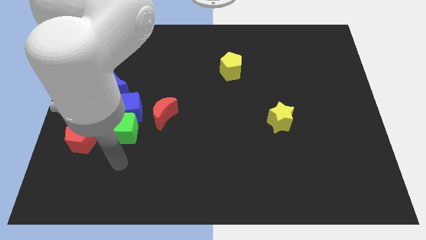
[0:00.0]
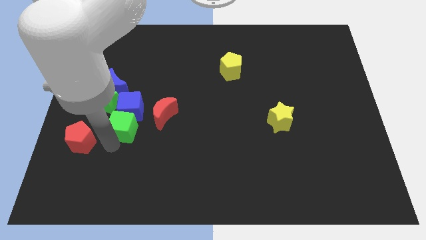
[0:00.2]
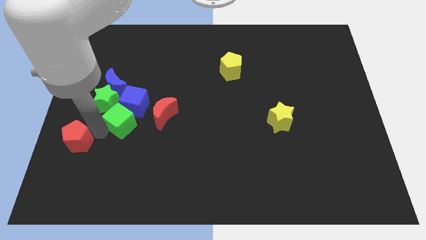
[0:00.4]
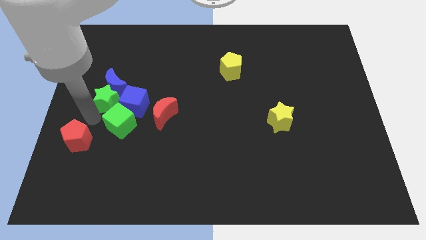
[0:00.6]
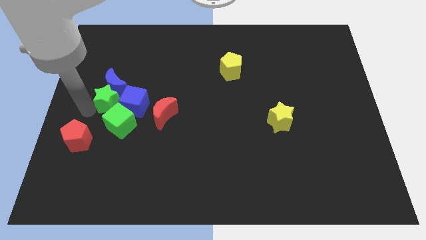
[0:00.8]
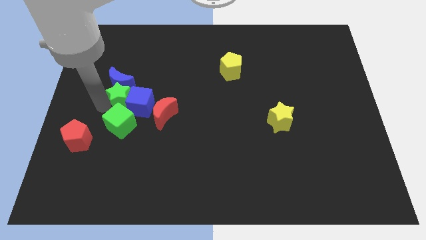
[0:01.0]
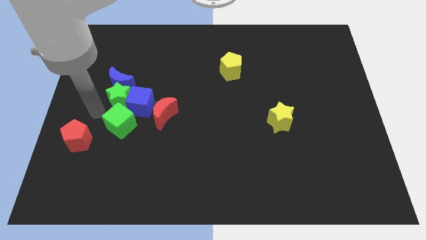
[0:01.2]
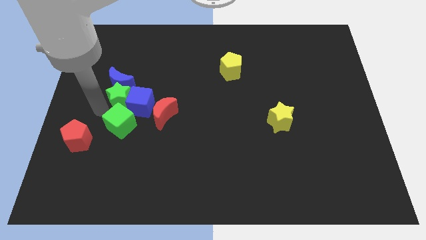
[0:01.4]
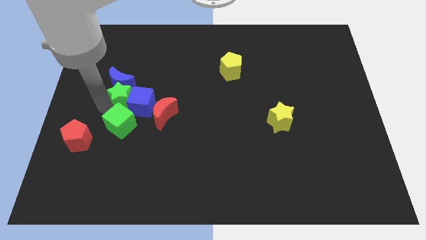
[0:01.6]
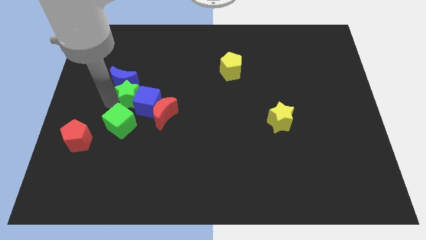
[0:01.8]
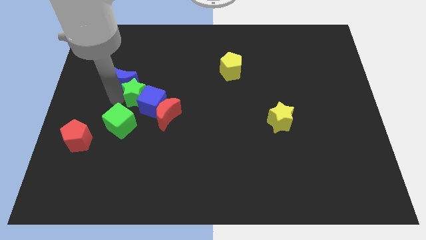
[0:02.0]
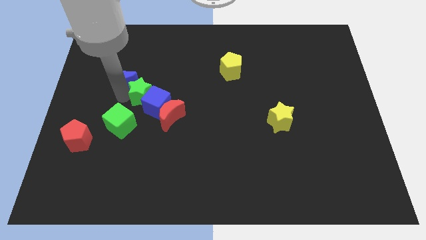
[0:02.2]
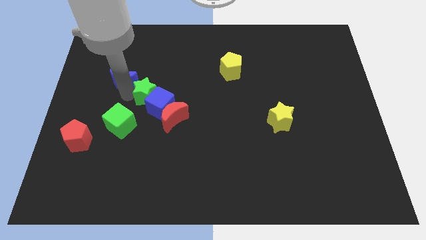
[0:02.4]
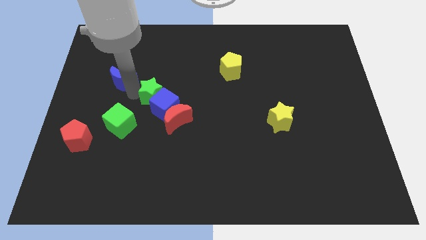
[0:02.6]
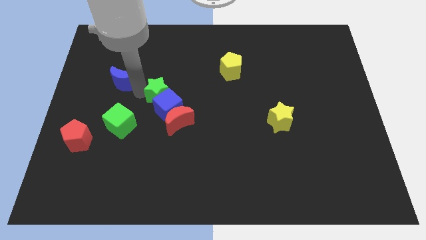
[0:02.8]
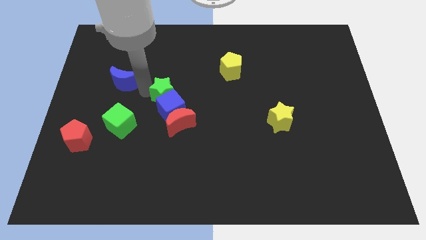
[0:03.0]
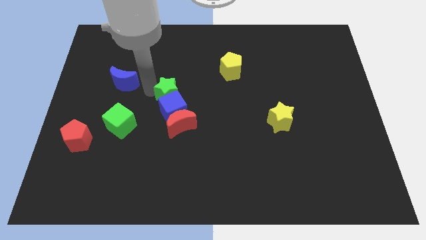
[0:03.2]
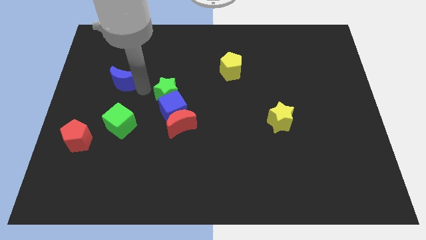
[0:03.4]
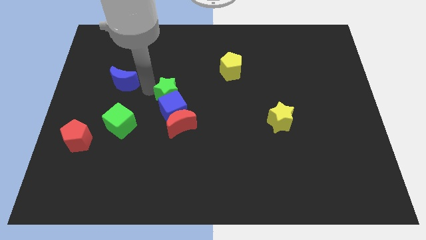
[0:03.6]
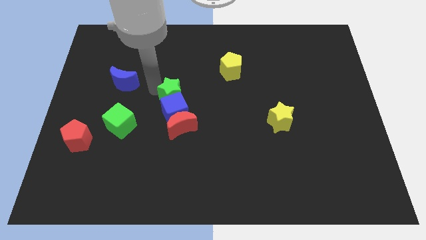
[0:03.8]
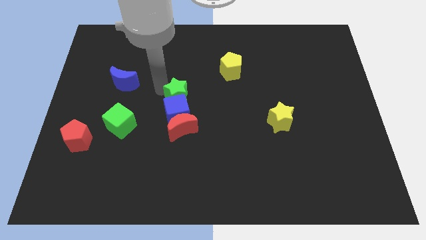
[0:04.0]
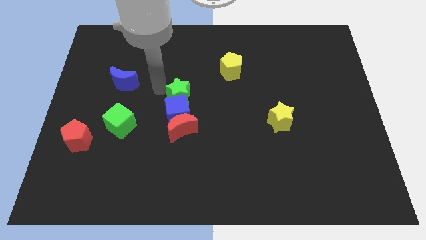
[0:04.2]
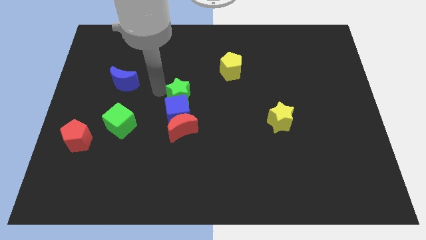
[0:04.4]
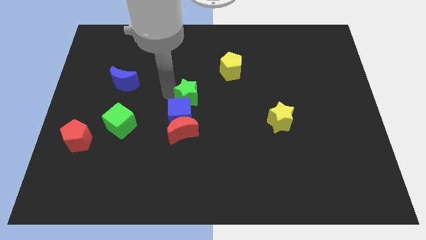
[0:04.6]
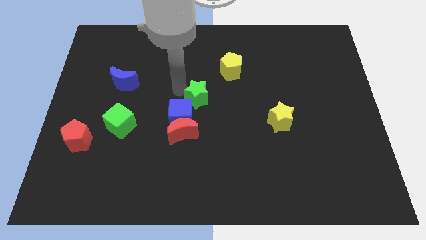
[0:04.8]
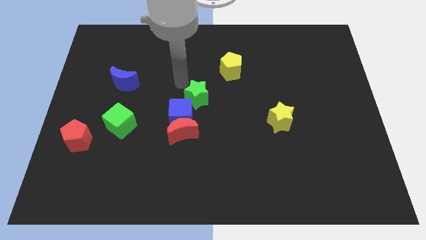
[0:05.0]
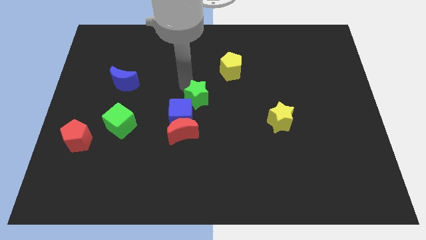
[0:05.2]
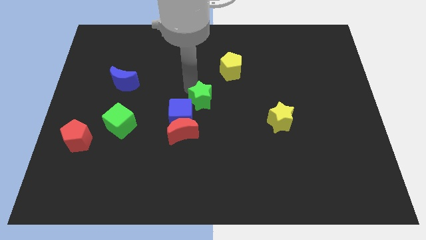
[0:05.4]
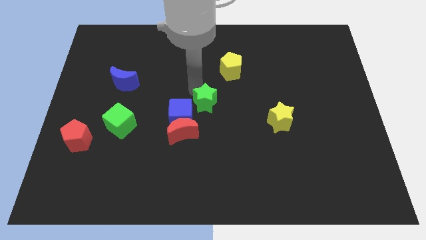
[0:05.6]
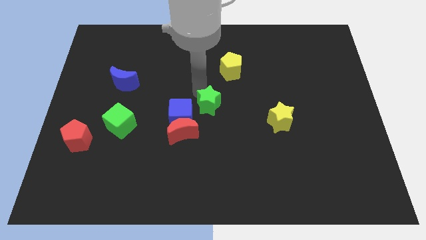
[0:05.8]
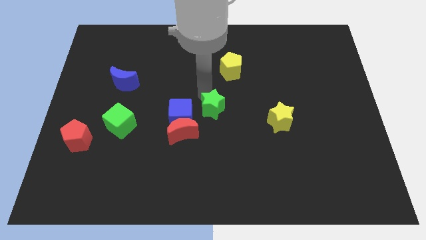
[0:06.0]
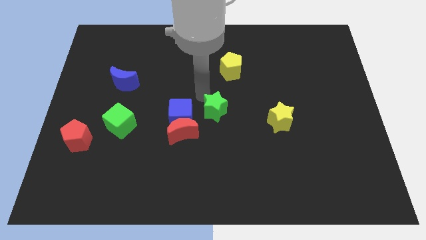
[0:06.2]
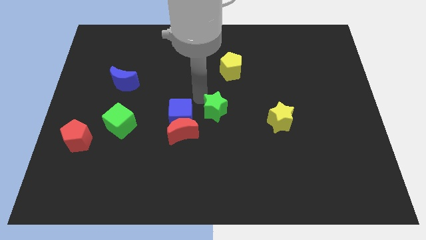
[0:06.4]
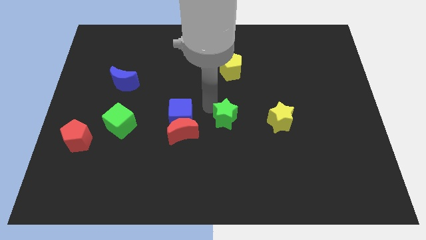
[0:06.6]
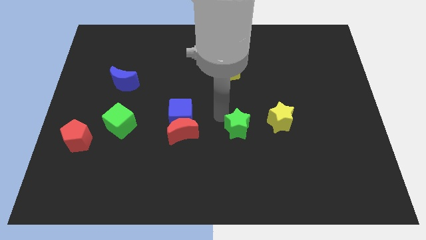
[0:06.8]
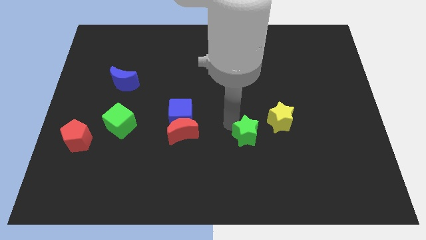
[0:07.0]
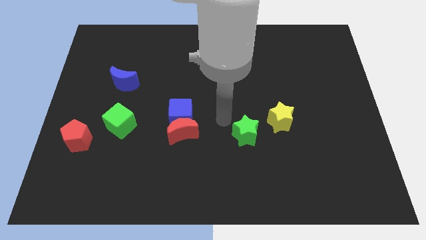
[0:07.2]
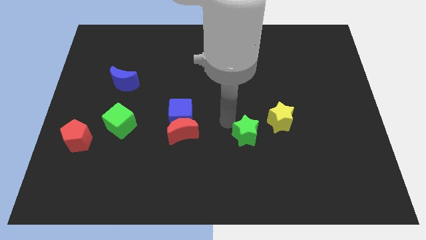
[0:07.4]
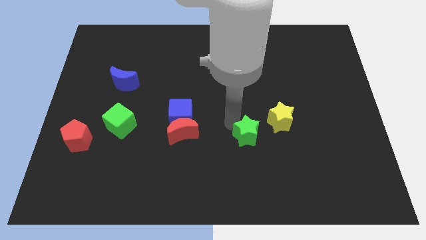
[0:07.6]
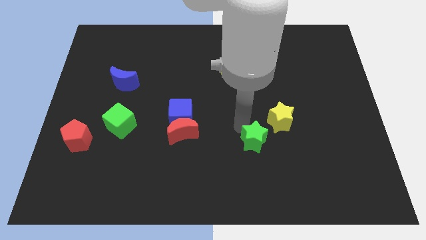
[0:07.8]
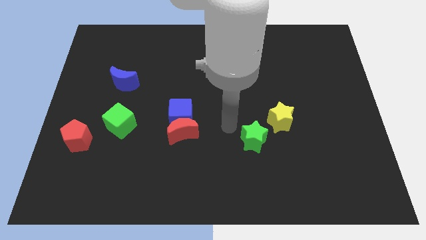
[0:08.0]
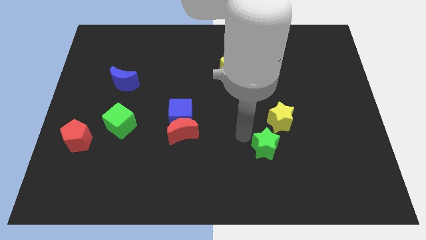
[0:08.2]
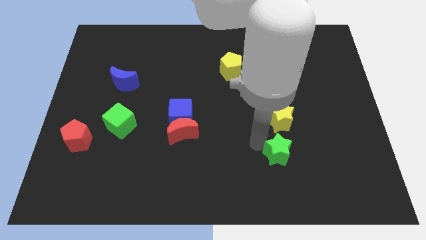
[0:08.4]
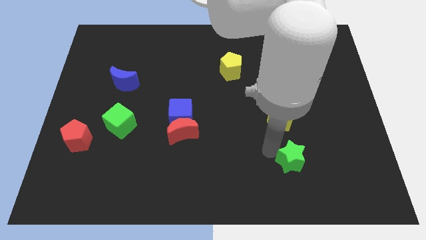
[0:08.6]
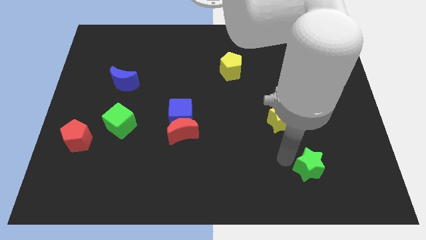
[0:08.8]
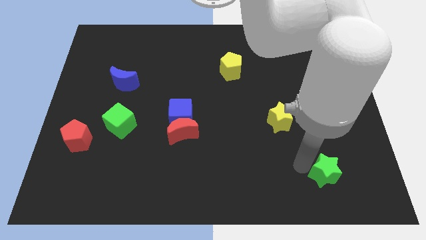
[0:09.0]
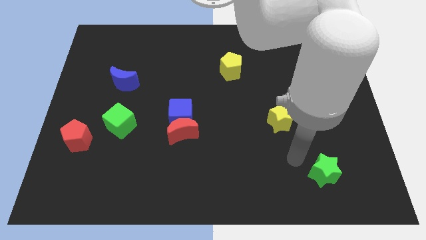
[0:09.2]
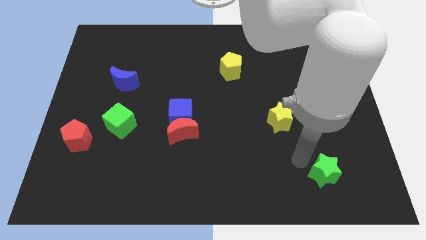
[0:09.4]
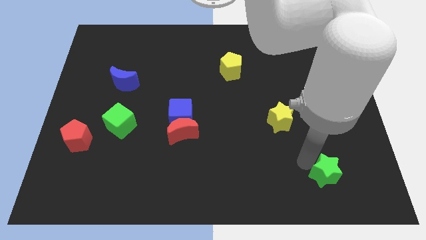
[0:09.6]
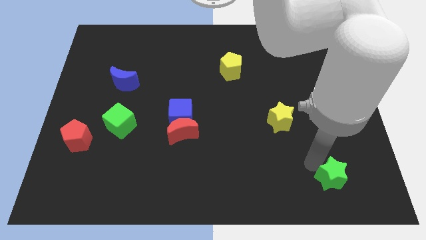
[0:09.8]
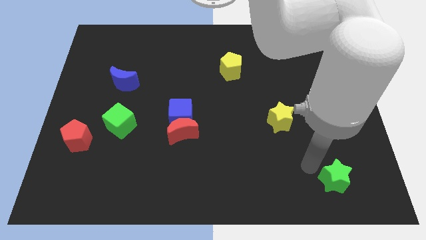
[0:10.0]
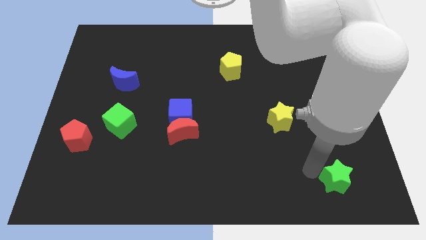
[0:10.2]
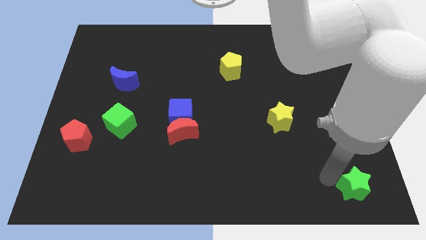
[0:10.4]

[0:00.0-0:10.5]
move the green star to the bottom right
